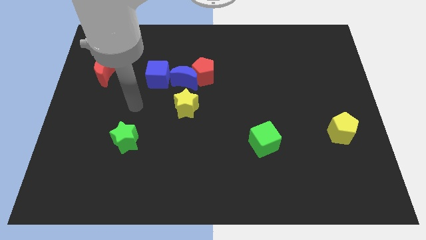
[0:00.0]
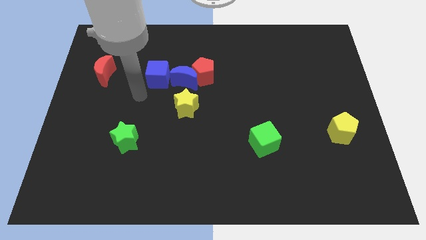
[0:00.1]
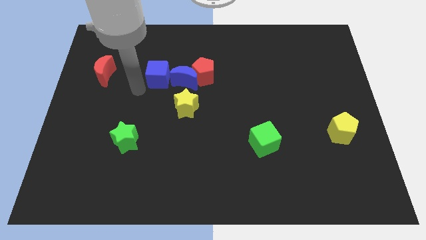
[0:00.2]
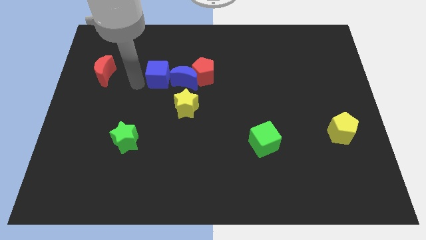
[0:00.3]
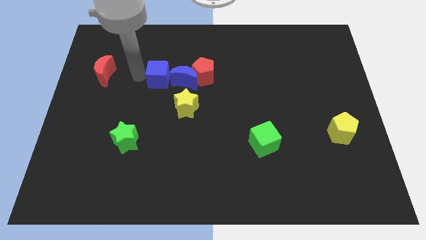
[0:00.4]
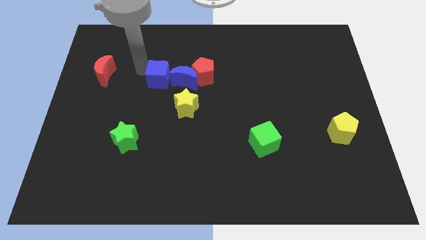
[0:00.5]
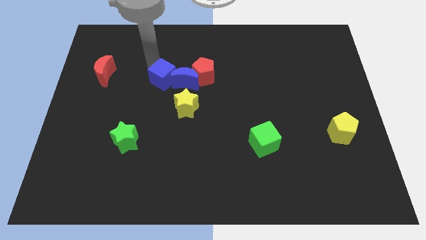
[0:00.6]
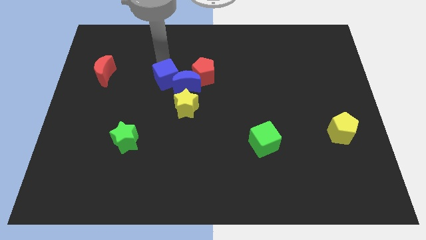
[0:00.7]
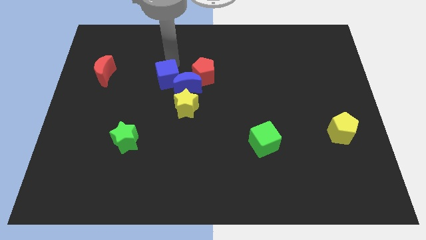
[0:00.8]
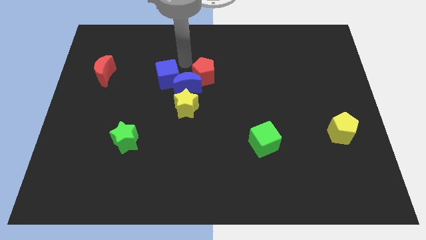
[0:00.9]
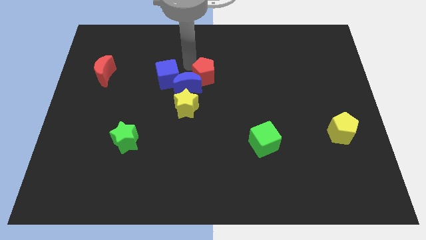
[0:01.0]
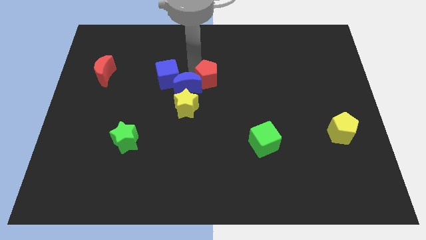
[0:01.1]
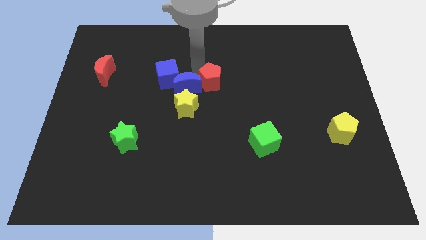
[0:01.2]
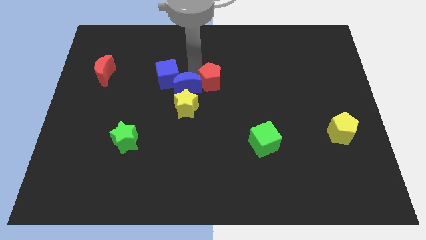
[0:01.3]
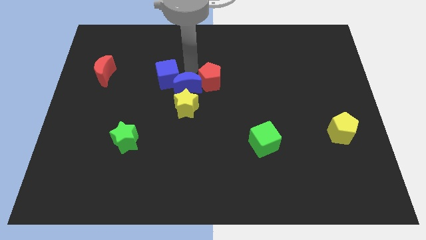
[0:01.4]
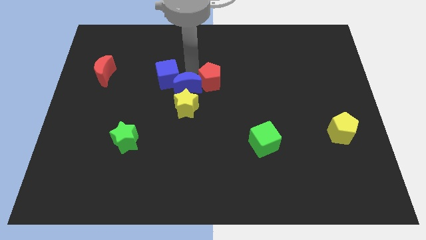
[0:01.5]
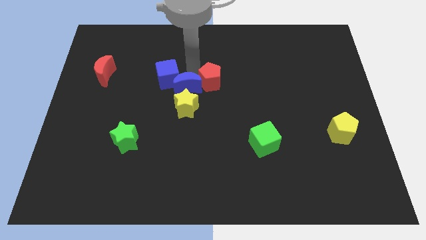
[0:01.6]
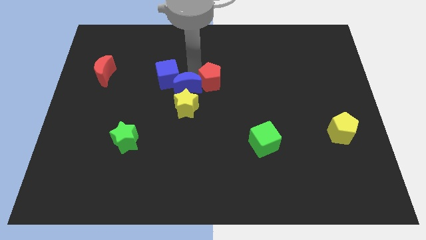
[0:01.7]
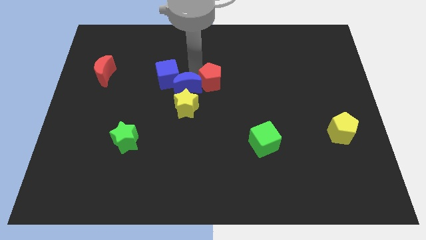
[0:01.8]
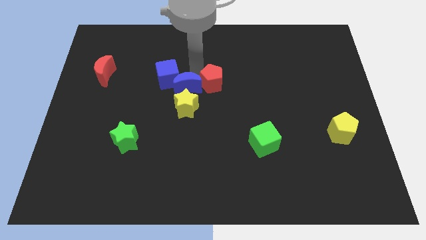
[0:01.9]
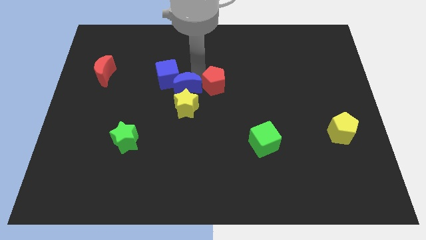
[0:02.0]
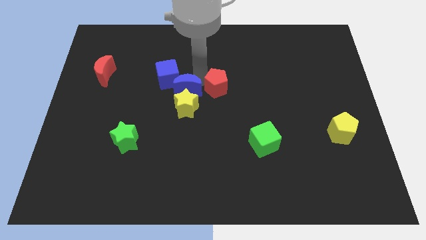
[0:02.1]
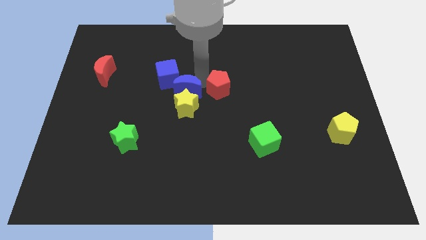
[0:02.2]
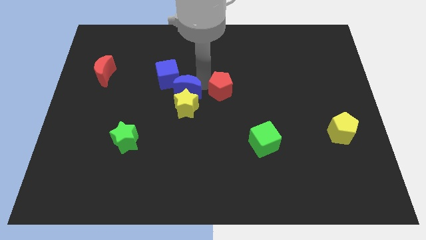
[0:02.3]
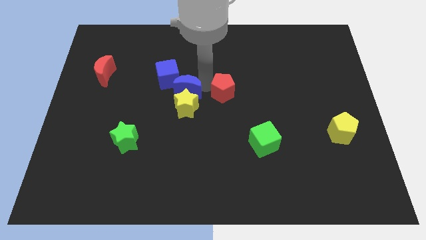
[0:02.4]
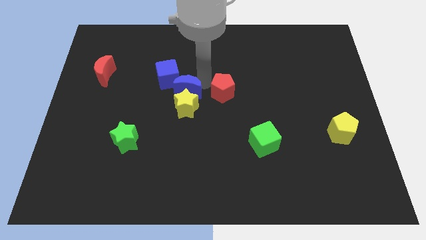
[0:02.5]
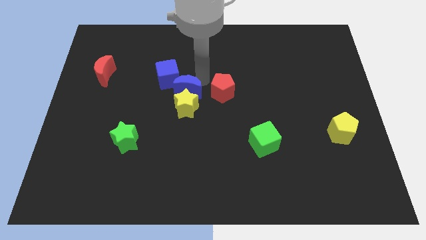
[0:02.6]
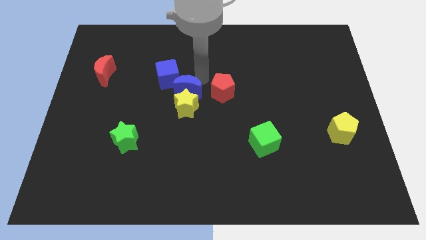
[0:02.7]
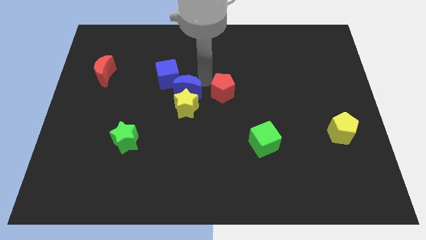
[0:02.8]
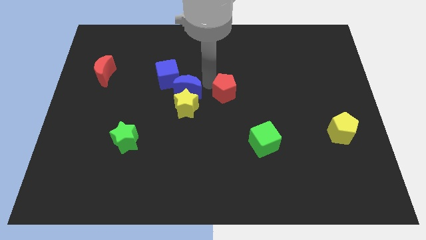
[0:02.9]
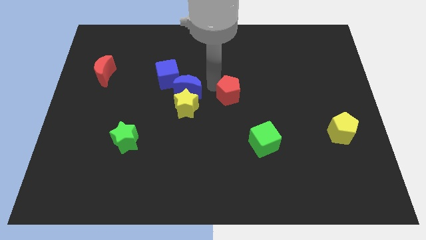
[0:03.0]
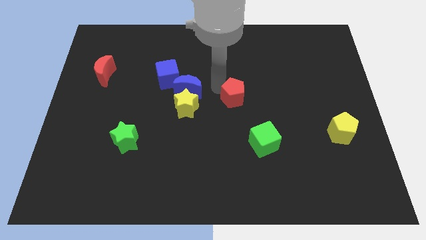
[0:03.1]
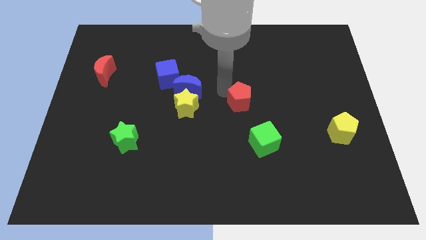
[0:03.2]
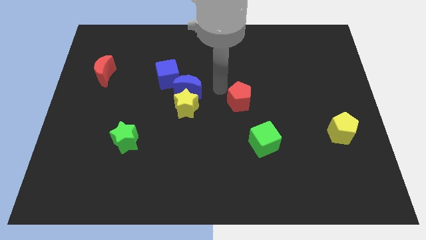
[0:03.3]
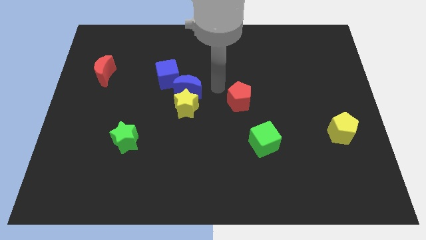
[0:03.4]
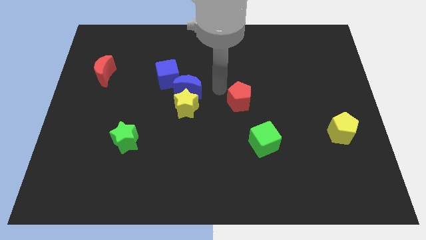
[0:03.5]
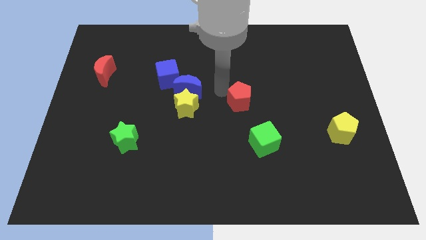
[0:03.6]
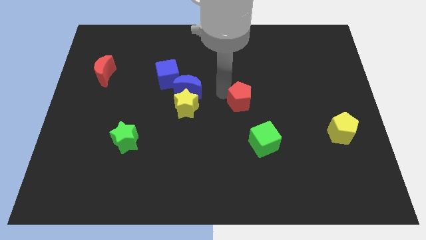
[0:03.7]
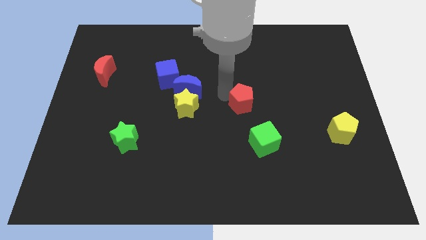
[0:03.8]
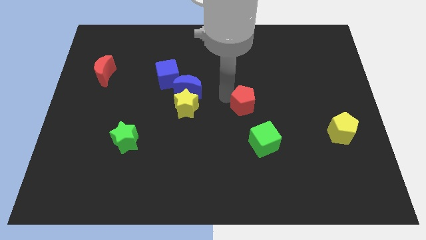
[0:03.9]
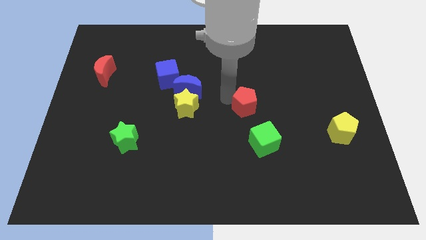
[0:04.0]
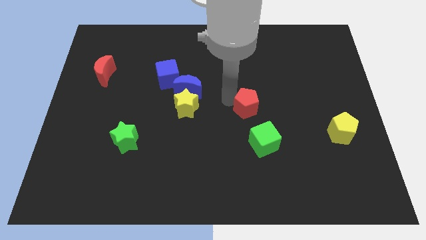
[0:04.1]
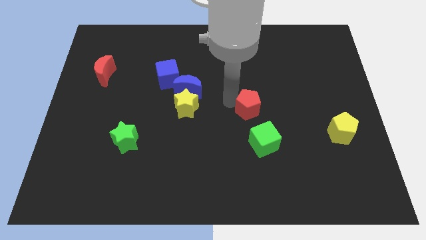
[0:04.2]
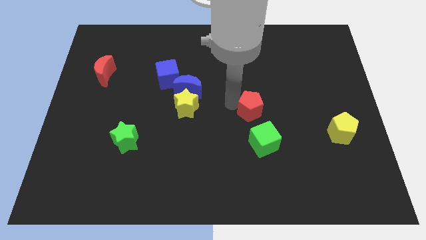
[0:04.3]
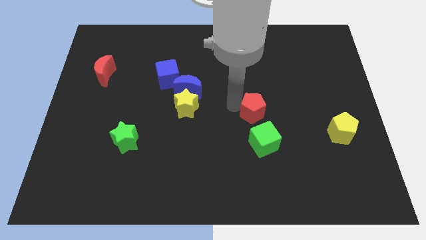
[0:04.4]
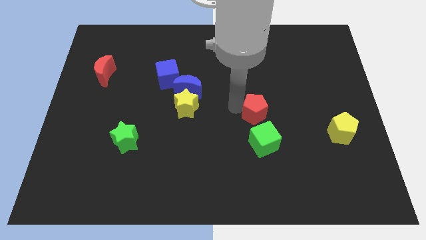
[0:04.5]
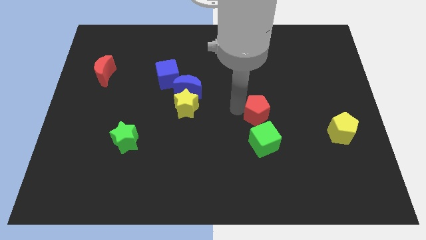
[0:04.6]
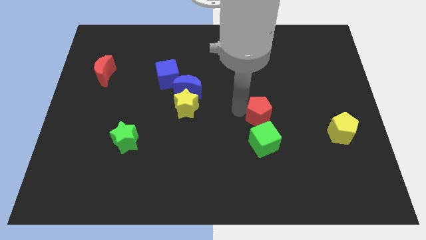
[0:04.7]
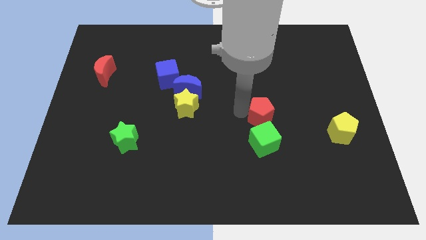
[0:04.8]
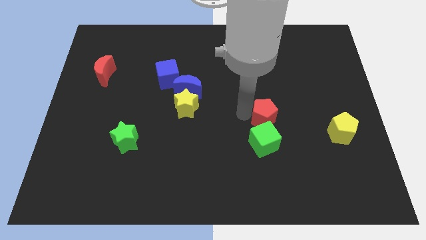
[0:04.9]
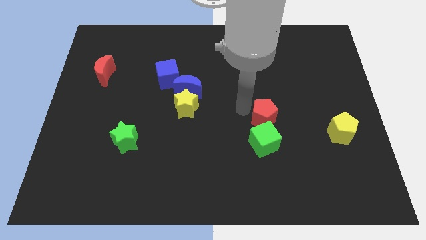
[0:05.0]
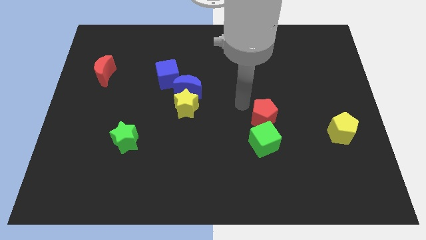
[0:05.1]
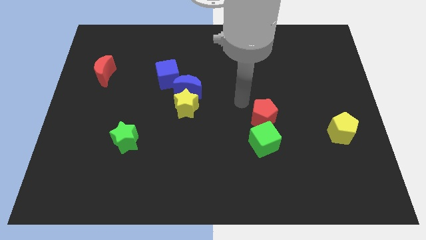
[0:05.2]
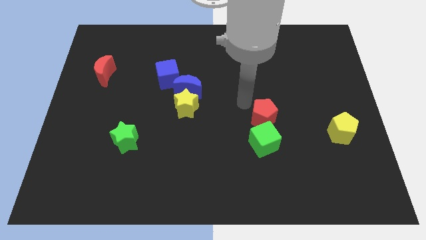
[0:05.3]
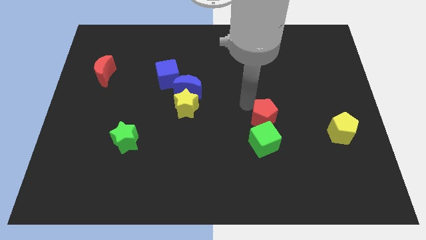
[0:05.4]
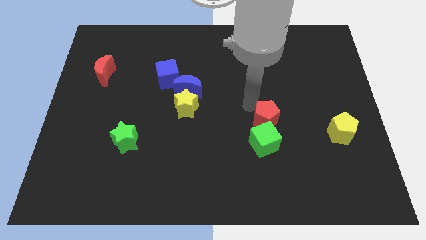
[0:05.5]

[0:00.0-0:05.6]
slide the red pentagon down and then right

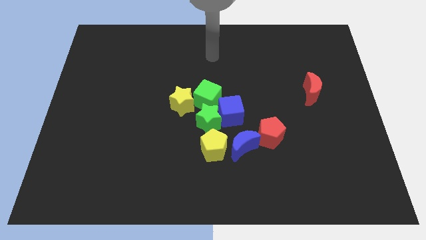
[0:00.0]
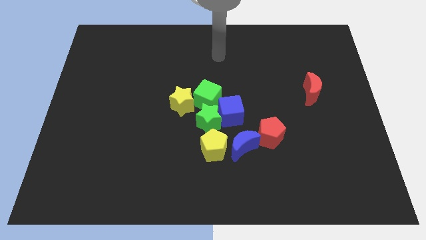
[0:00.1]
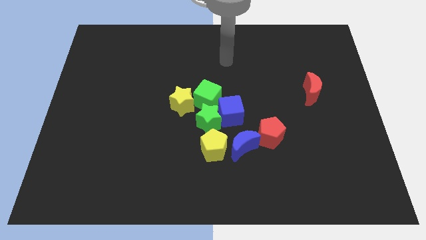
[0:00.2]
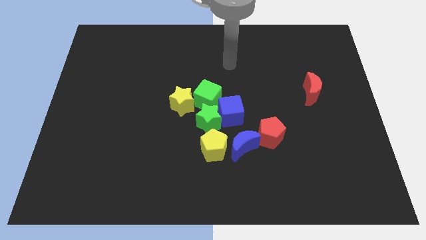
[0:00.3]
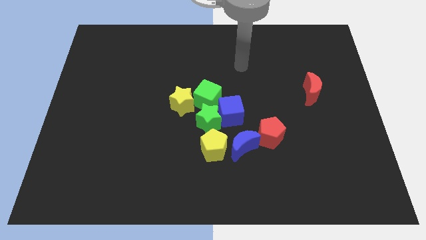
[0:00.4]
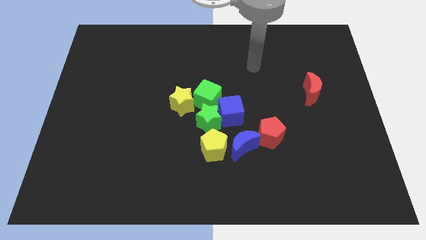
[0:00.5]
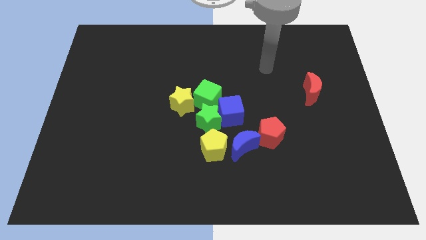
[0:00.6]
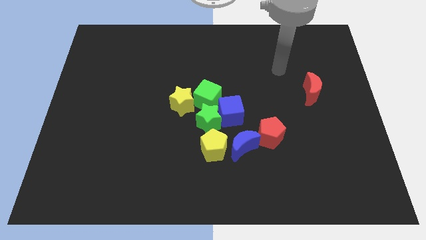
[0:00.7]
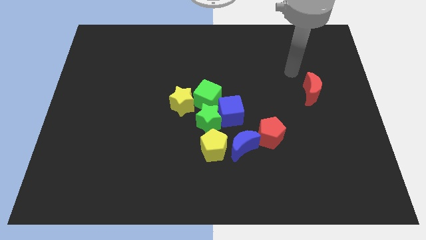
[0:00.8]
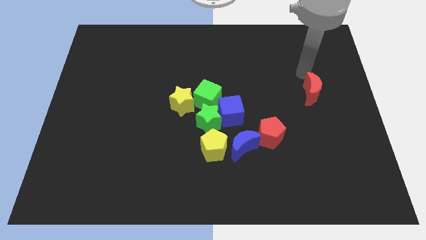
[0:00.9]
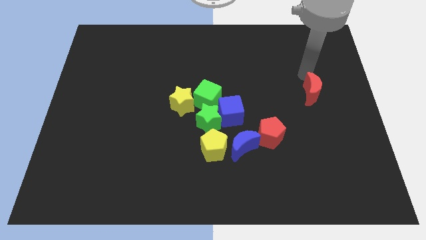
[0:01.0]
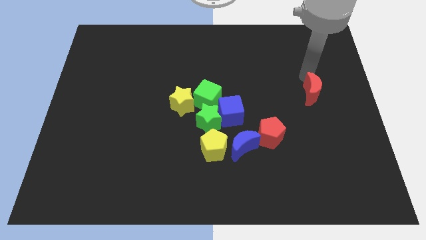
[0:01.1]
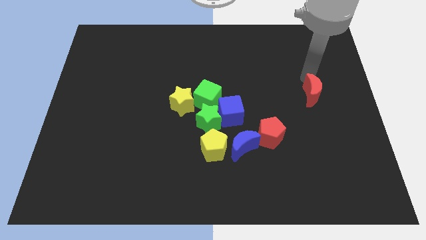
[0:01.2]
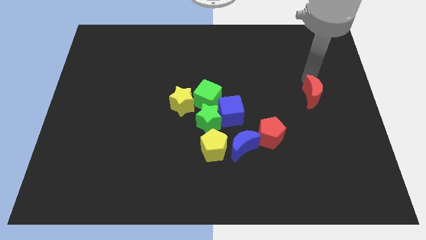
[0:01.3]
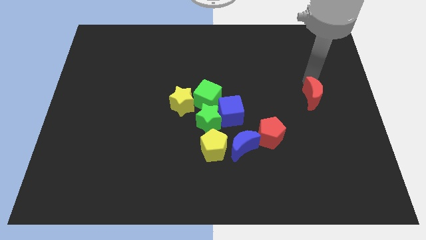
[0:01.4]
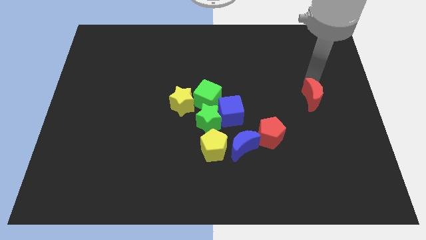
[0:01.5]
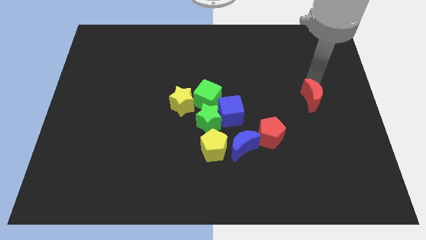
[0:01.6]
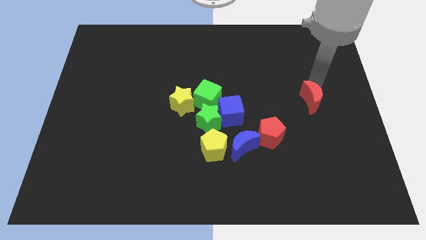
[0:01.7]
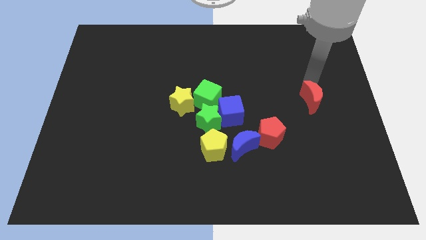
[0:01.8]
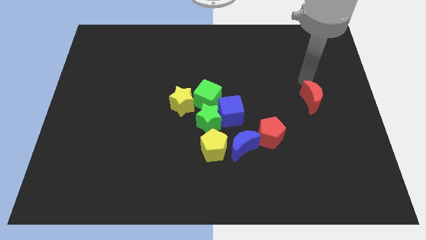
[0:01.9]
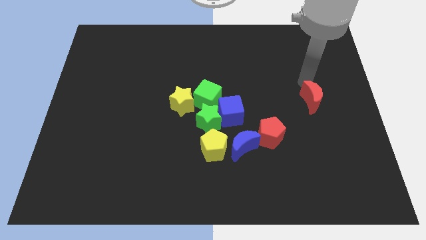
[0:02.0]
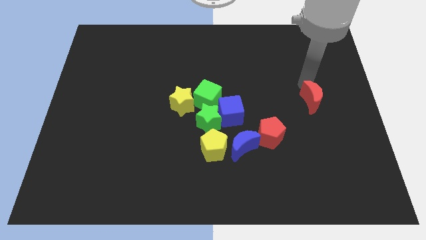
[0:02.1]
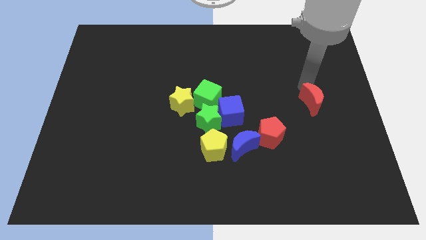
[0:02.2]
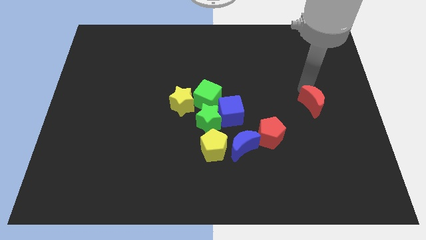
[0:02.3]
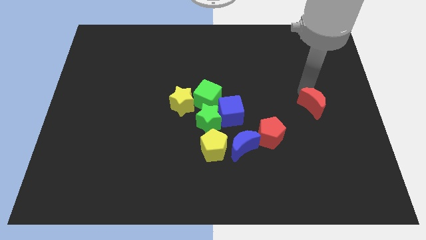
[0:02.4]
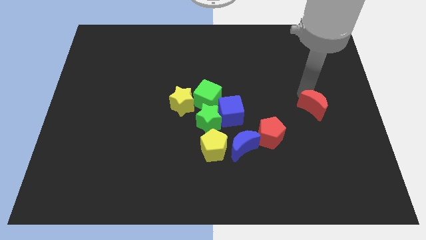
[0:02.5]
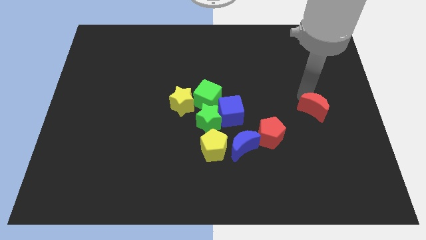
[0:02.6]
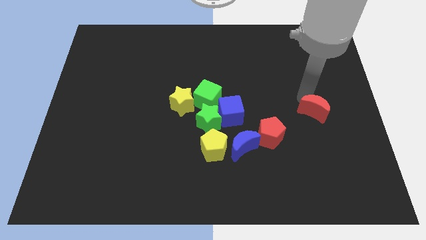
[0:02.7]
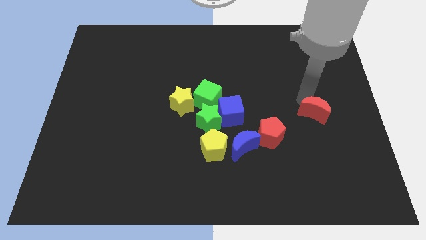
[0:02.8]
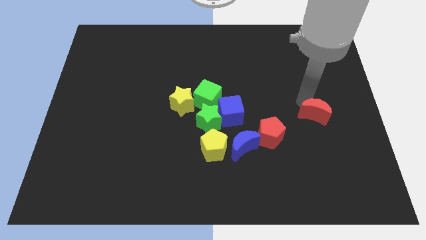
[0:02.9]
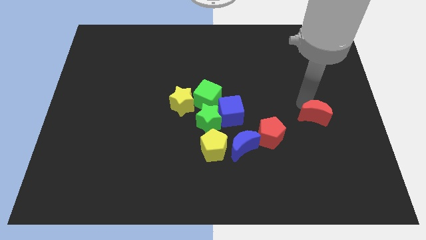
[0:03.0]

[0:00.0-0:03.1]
slide the red moon down slightly
